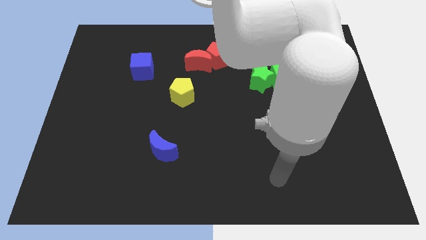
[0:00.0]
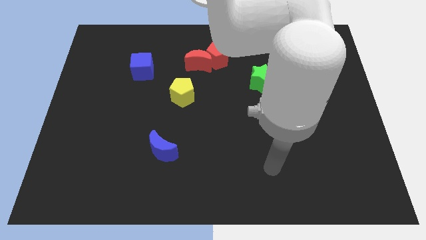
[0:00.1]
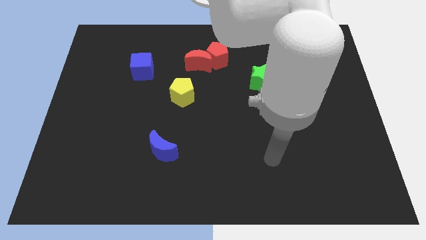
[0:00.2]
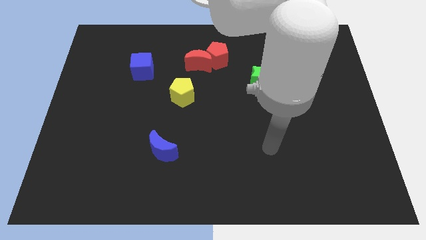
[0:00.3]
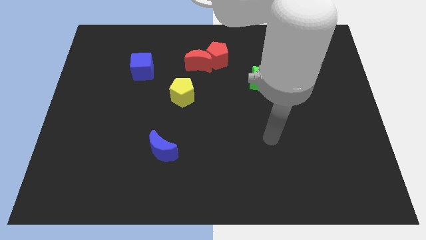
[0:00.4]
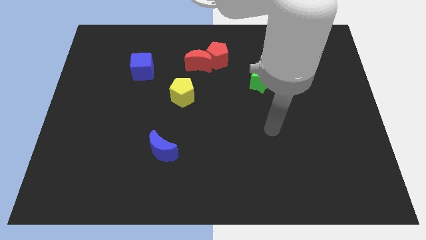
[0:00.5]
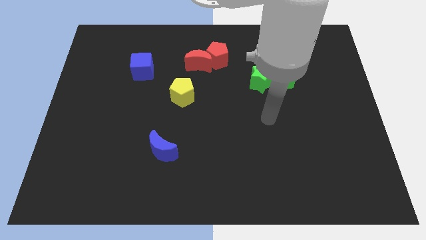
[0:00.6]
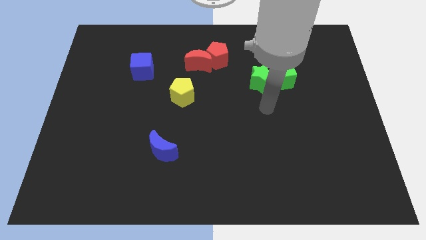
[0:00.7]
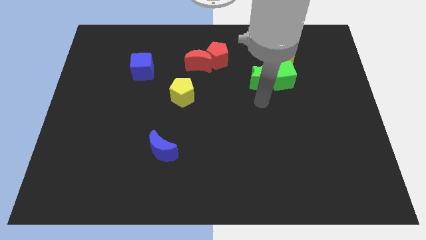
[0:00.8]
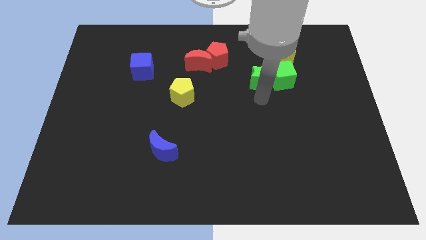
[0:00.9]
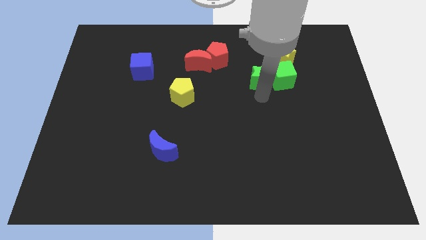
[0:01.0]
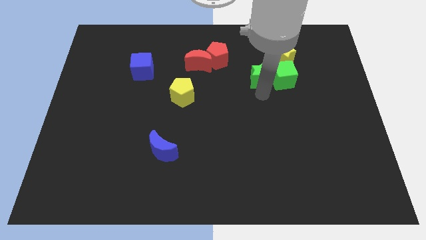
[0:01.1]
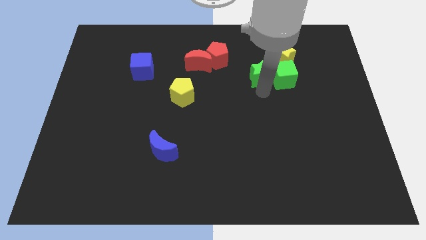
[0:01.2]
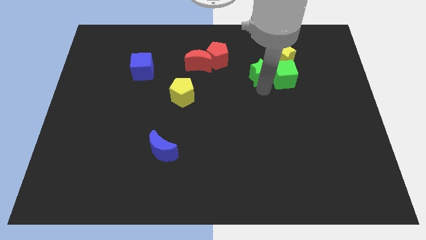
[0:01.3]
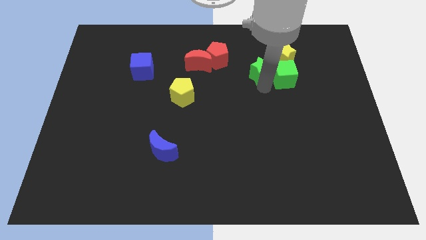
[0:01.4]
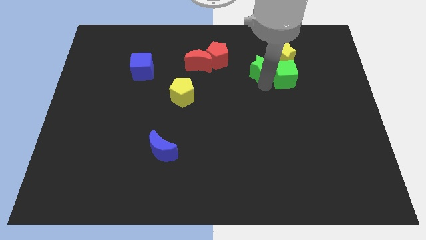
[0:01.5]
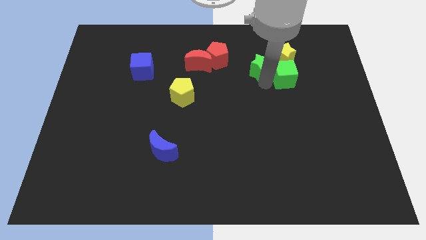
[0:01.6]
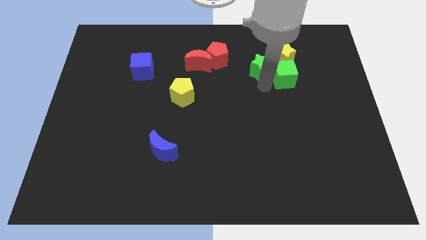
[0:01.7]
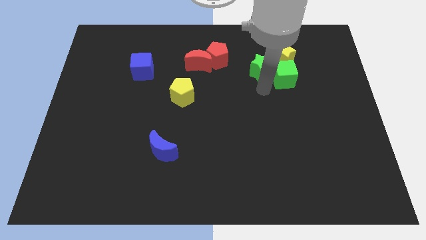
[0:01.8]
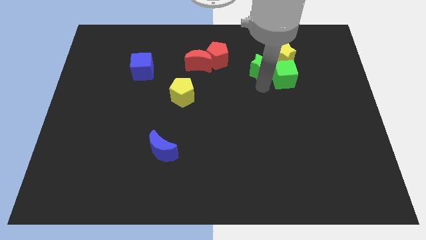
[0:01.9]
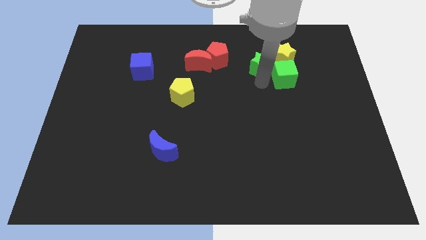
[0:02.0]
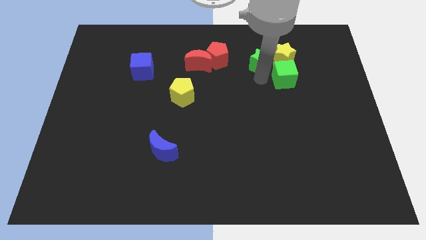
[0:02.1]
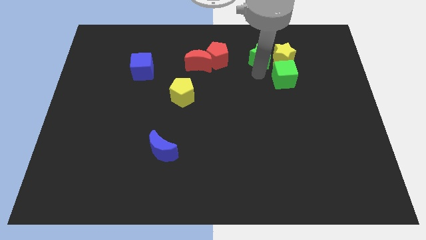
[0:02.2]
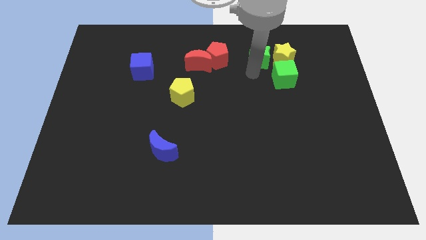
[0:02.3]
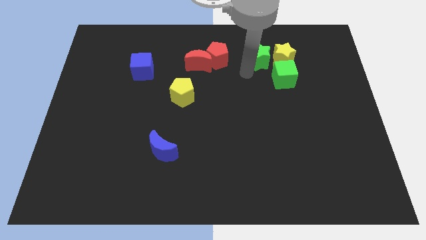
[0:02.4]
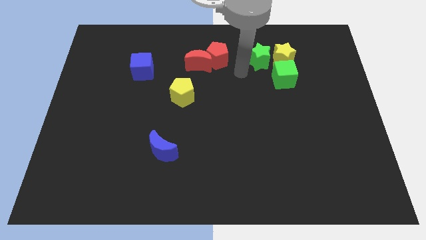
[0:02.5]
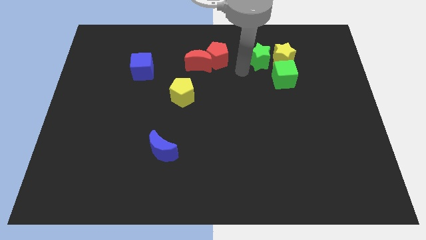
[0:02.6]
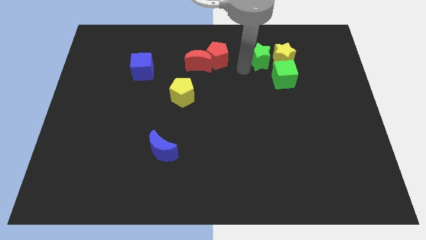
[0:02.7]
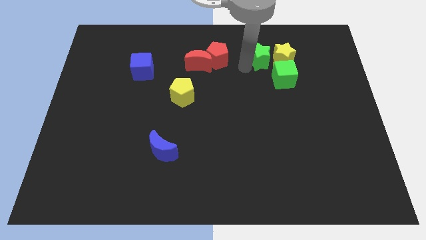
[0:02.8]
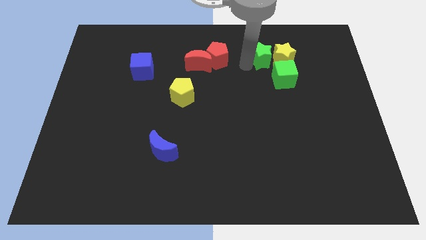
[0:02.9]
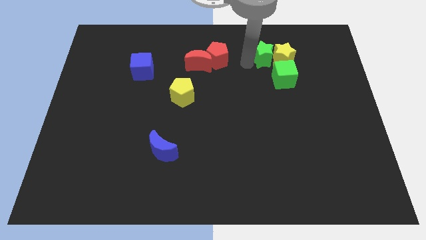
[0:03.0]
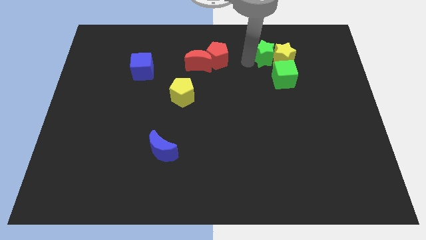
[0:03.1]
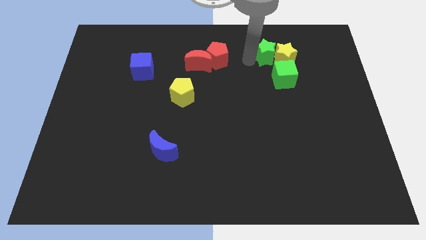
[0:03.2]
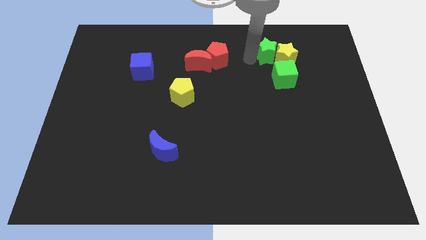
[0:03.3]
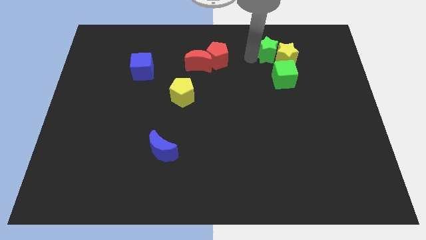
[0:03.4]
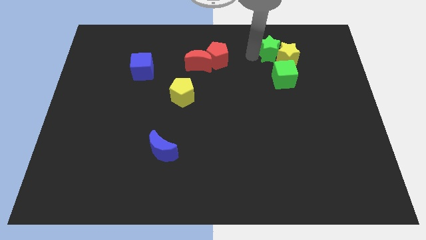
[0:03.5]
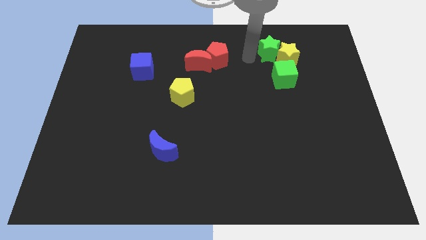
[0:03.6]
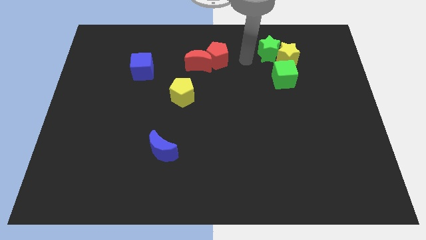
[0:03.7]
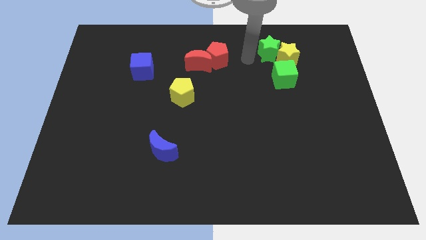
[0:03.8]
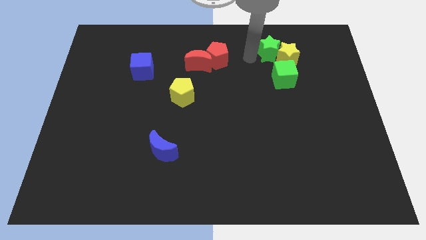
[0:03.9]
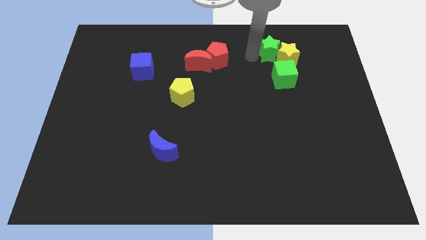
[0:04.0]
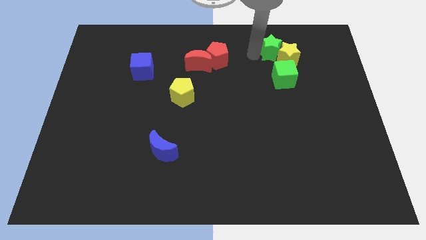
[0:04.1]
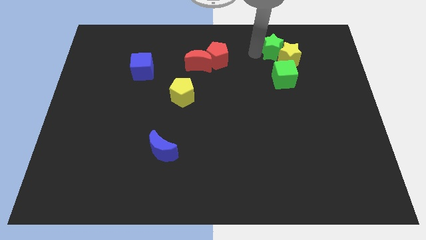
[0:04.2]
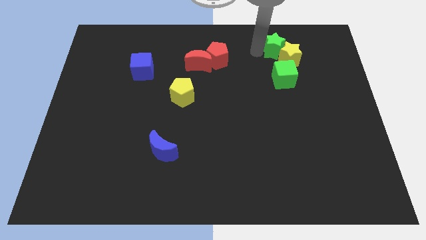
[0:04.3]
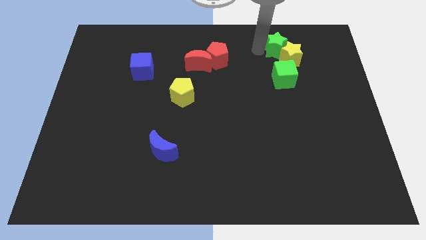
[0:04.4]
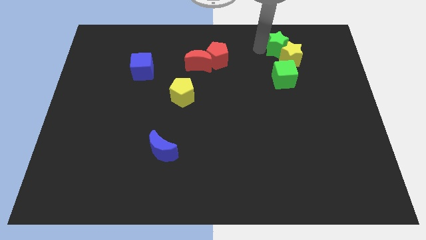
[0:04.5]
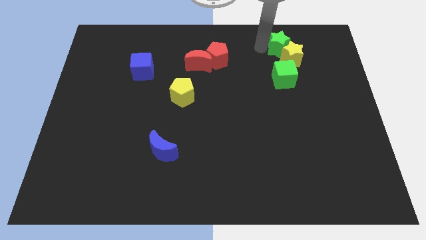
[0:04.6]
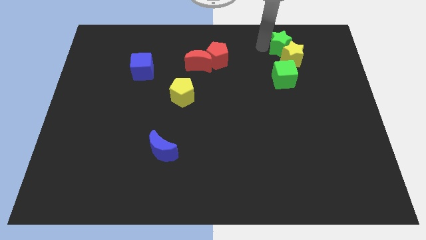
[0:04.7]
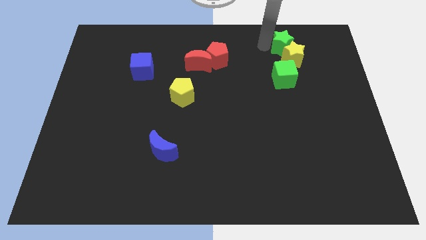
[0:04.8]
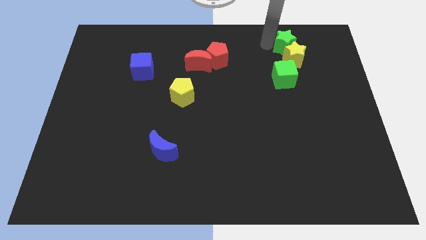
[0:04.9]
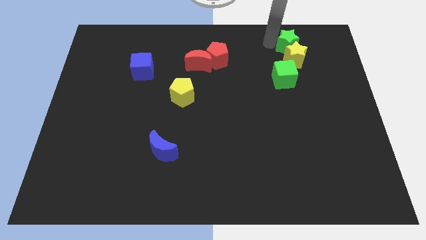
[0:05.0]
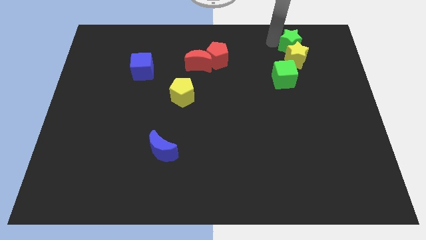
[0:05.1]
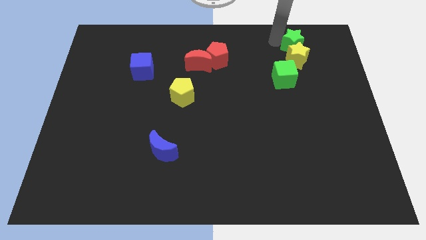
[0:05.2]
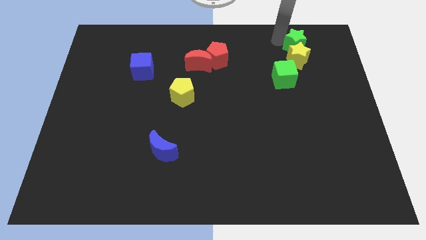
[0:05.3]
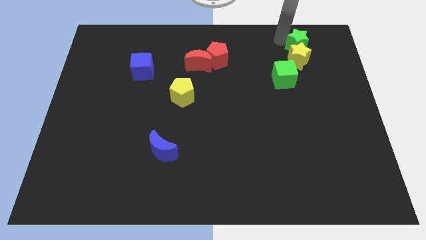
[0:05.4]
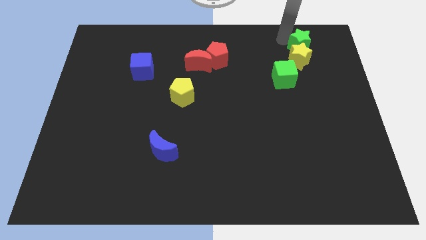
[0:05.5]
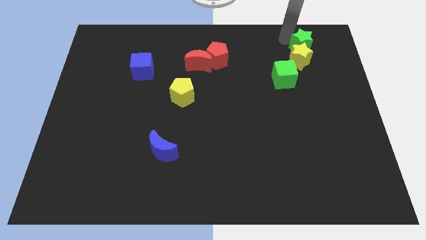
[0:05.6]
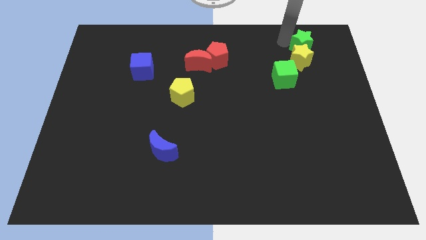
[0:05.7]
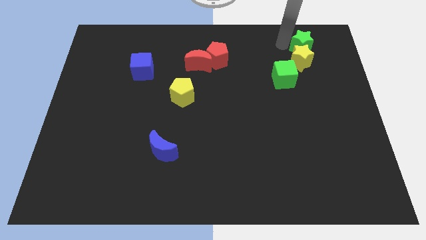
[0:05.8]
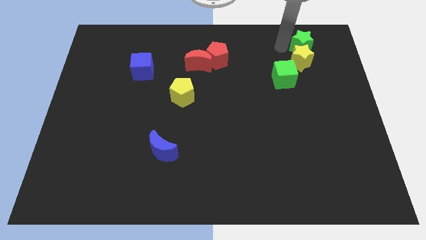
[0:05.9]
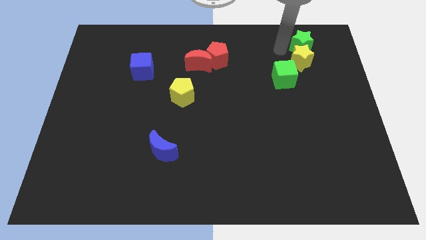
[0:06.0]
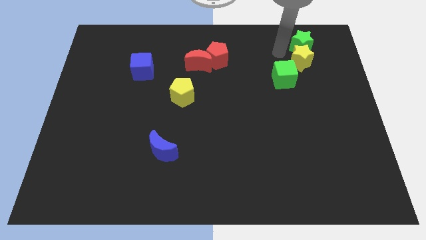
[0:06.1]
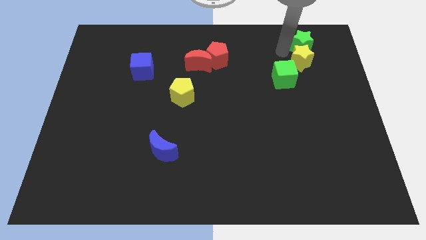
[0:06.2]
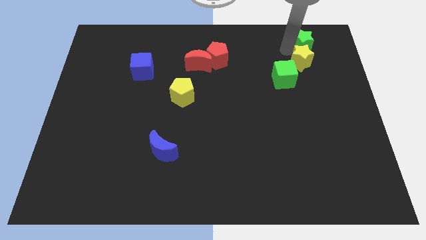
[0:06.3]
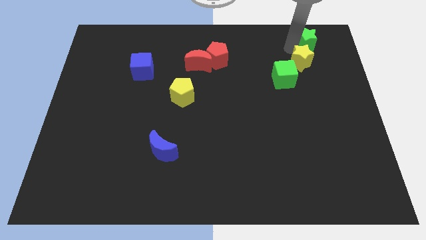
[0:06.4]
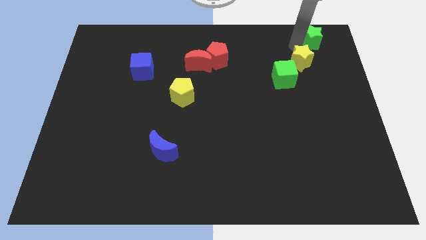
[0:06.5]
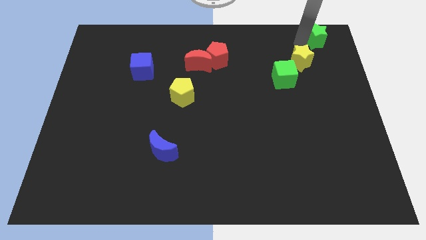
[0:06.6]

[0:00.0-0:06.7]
put the green star to the top right
